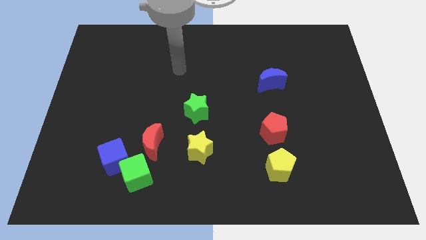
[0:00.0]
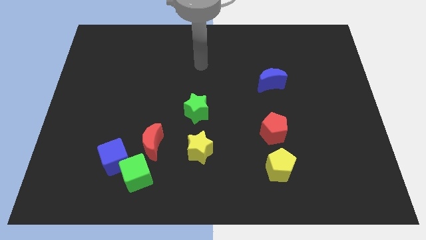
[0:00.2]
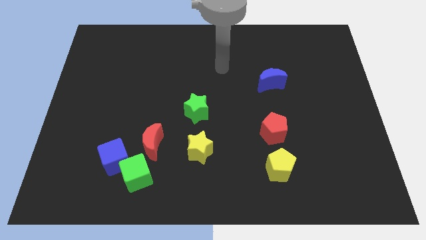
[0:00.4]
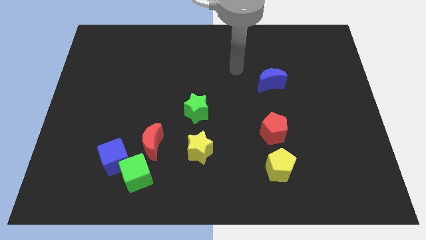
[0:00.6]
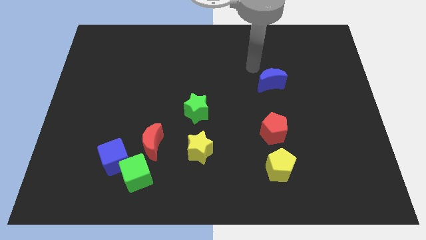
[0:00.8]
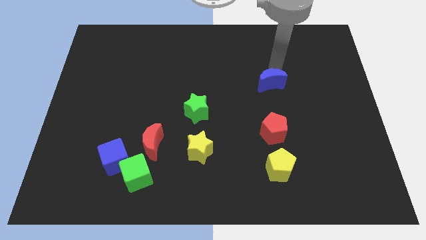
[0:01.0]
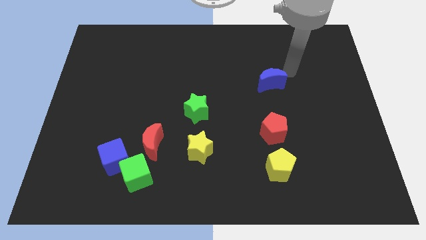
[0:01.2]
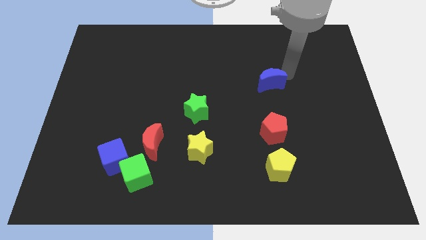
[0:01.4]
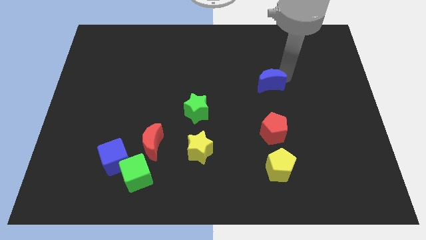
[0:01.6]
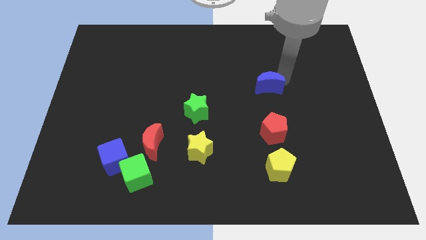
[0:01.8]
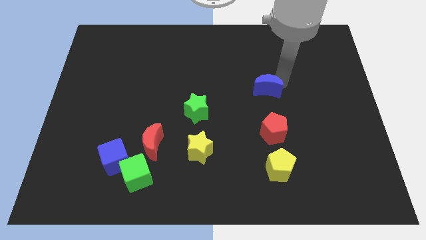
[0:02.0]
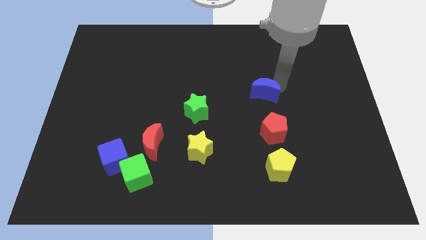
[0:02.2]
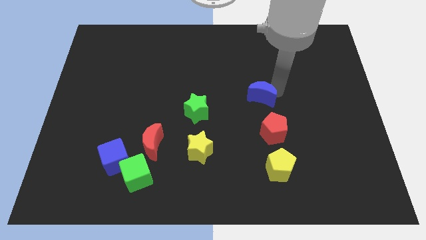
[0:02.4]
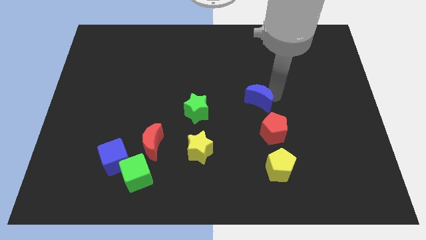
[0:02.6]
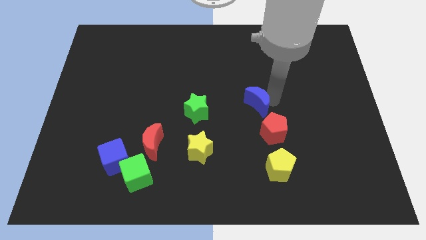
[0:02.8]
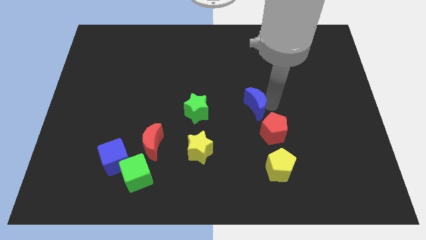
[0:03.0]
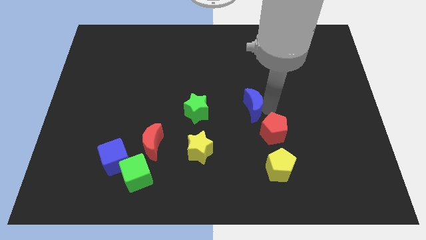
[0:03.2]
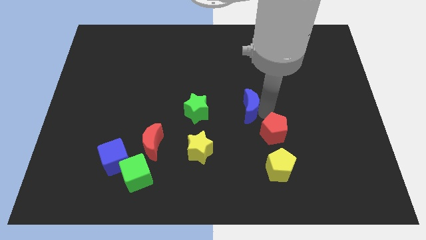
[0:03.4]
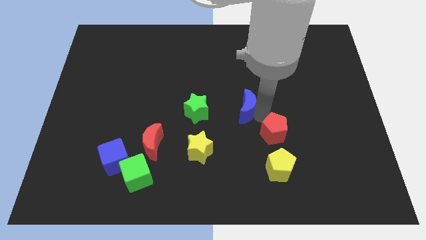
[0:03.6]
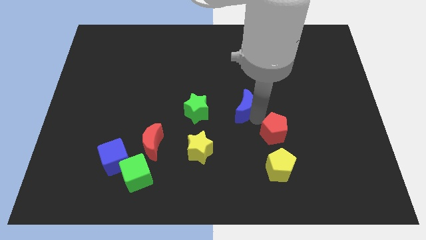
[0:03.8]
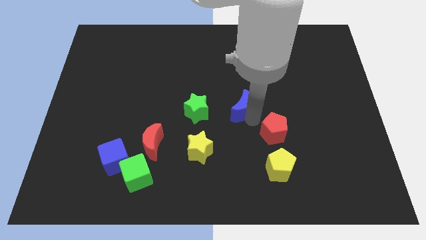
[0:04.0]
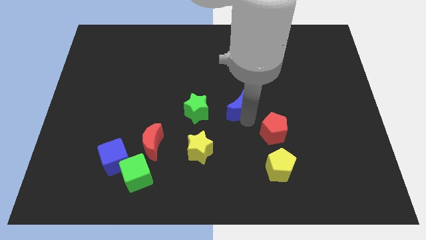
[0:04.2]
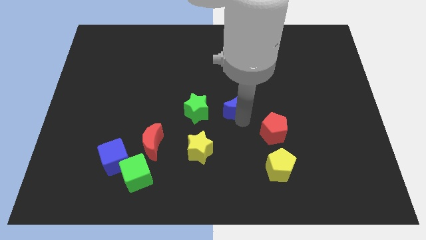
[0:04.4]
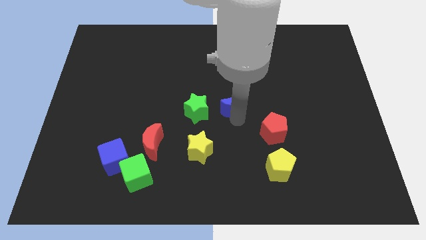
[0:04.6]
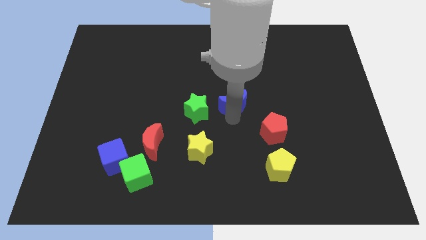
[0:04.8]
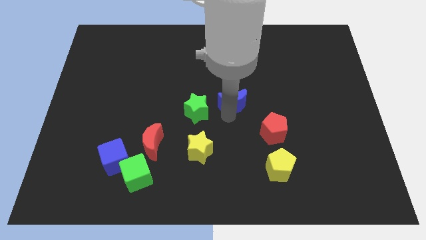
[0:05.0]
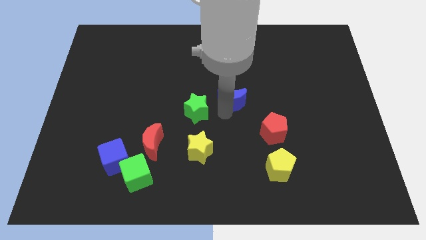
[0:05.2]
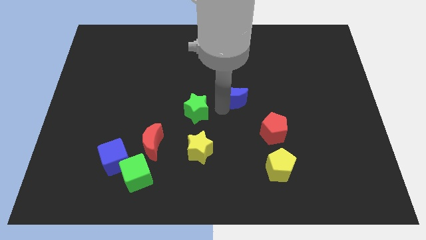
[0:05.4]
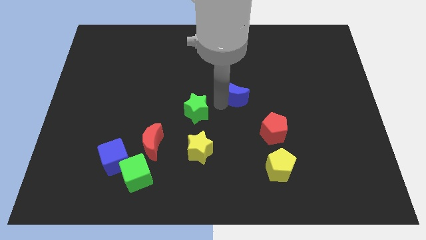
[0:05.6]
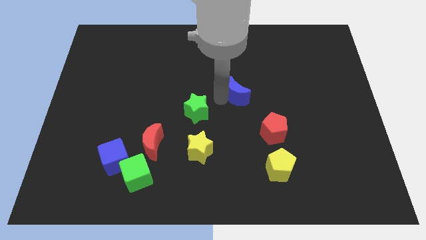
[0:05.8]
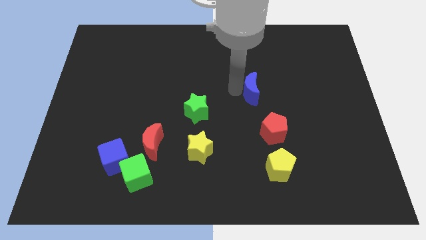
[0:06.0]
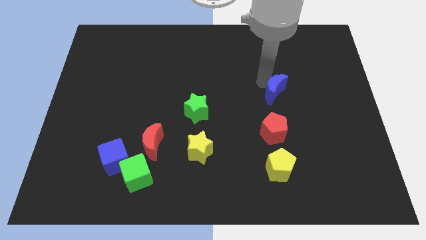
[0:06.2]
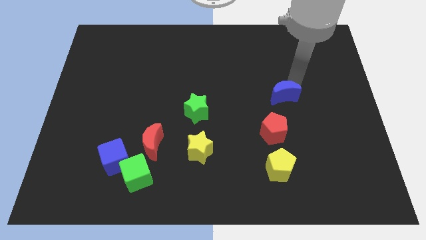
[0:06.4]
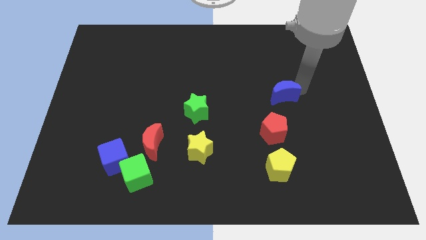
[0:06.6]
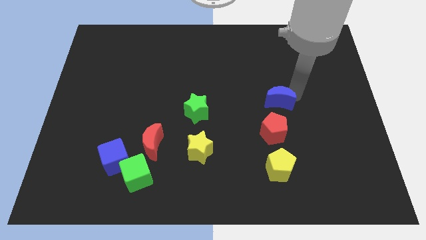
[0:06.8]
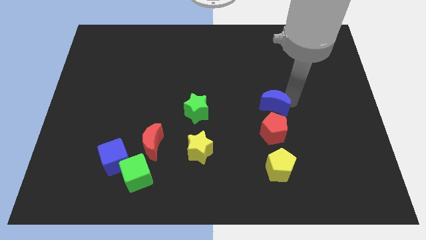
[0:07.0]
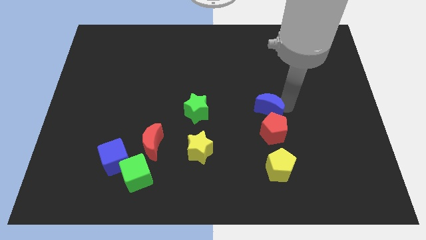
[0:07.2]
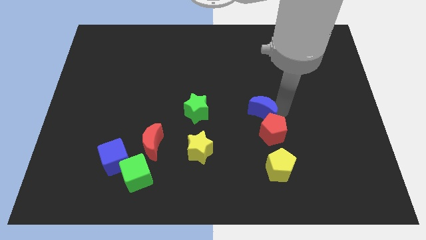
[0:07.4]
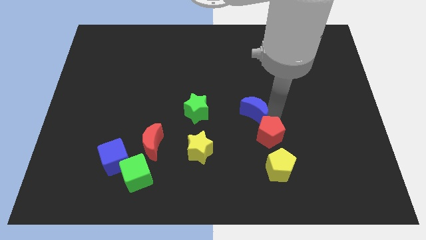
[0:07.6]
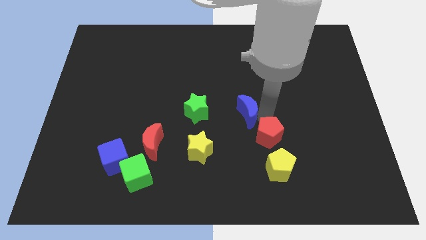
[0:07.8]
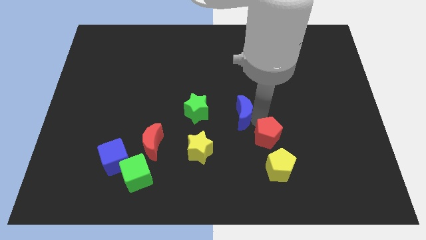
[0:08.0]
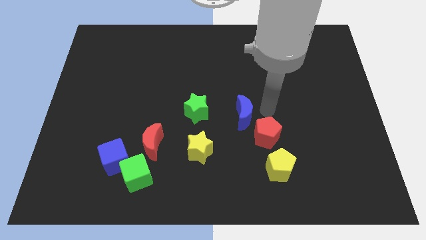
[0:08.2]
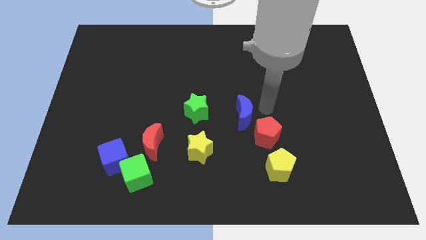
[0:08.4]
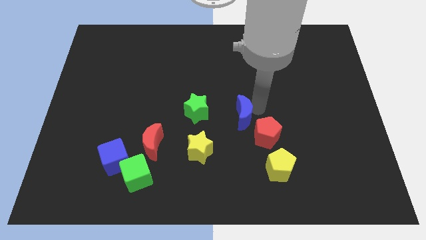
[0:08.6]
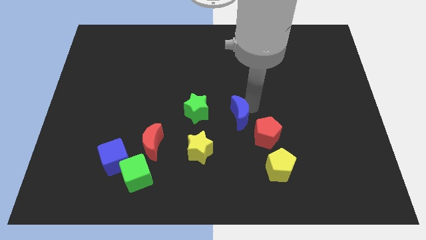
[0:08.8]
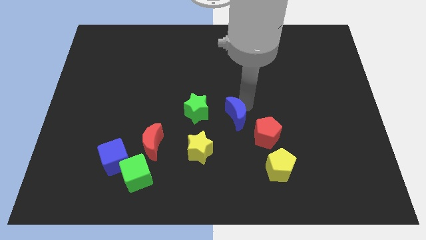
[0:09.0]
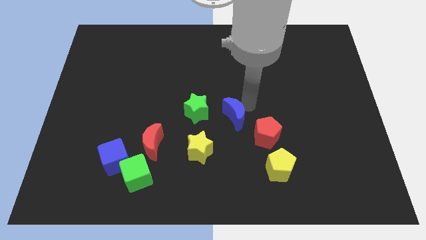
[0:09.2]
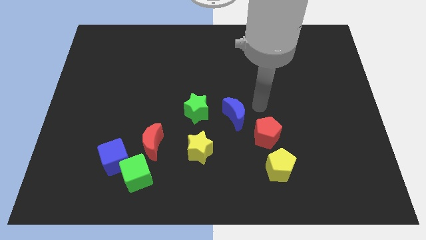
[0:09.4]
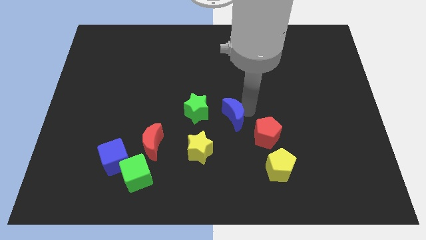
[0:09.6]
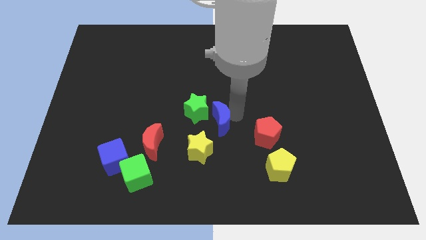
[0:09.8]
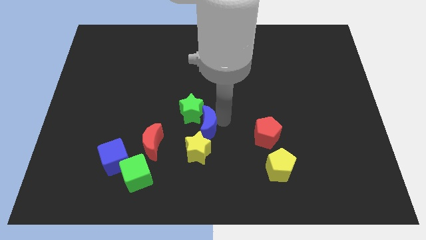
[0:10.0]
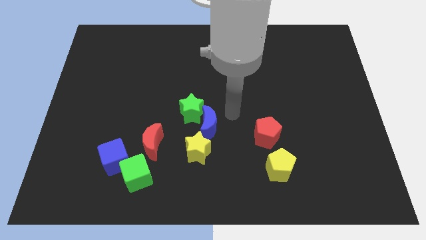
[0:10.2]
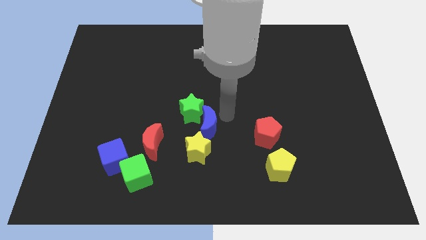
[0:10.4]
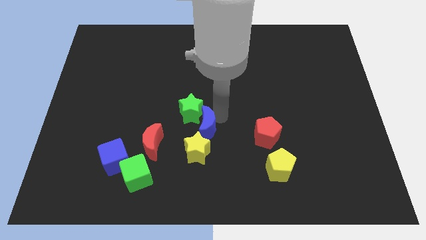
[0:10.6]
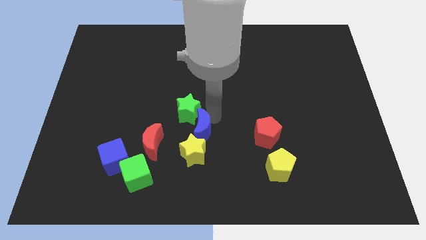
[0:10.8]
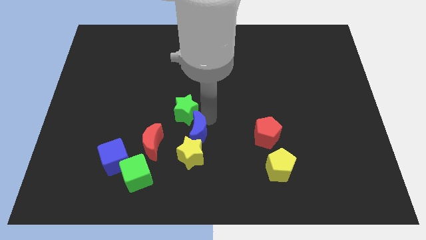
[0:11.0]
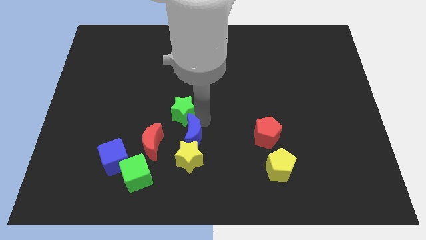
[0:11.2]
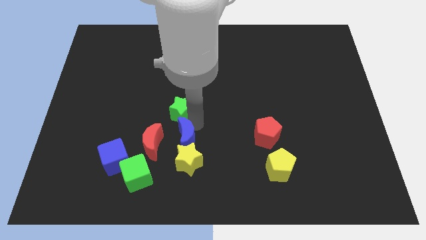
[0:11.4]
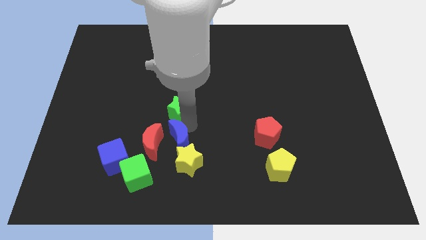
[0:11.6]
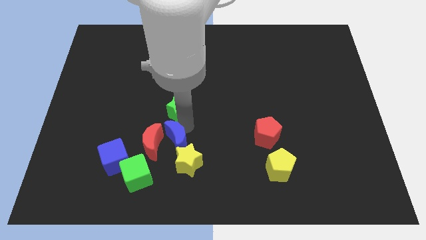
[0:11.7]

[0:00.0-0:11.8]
push the blue moon diagonally down and to the right of the red moon
